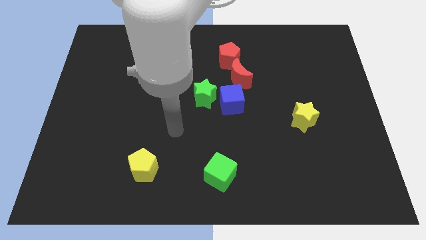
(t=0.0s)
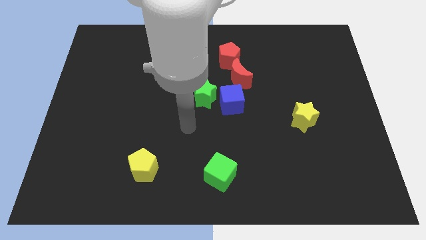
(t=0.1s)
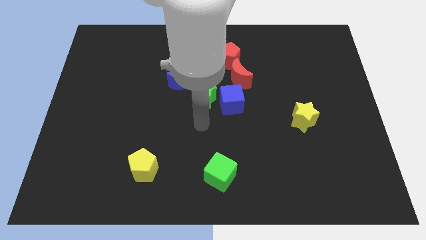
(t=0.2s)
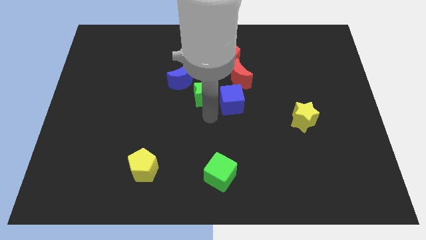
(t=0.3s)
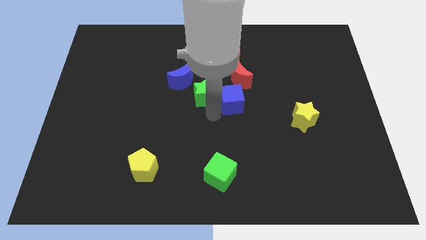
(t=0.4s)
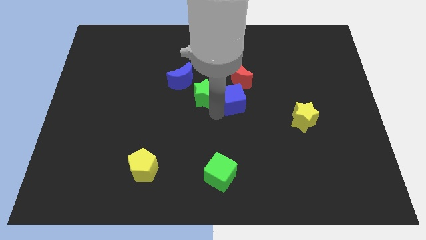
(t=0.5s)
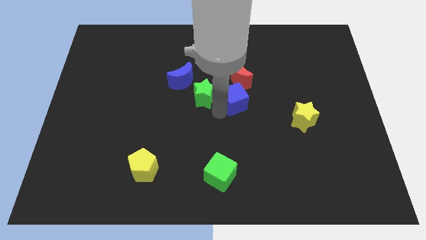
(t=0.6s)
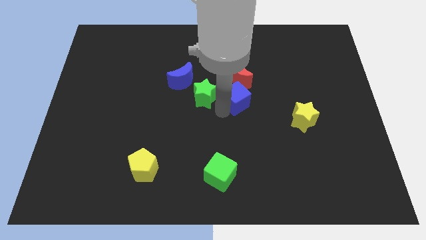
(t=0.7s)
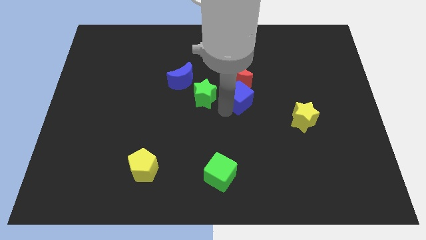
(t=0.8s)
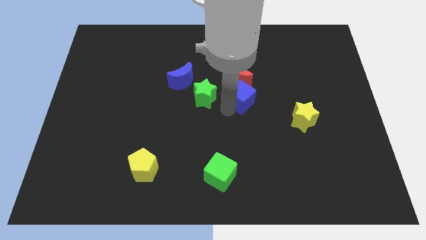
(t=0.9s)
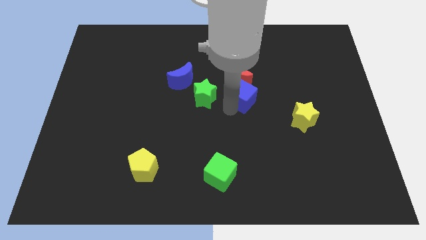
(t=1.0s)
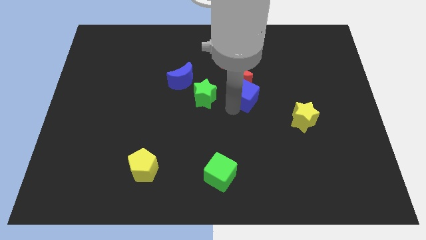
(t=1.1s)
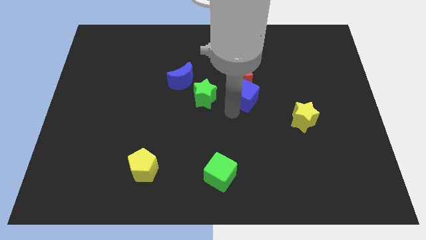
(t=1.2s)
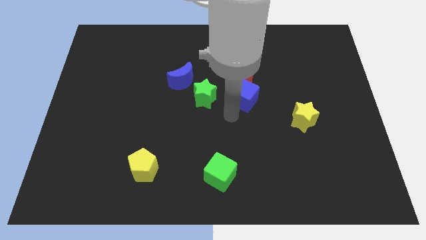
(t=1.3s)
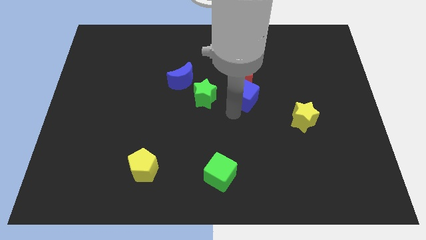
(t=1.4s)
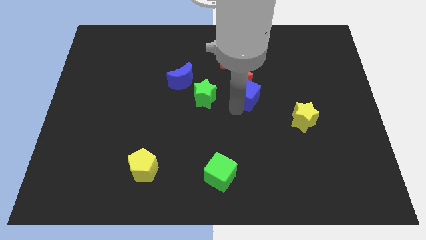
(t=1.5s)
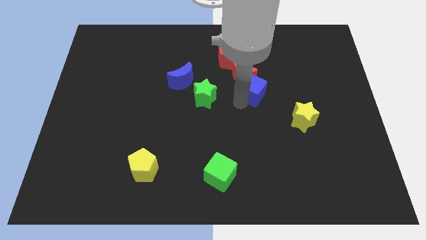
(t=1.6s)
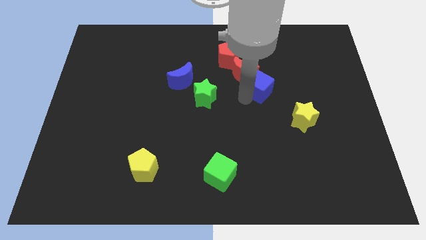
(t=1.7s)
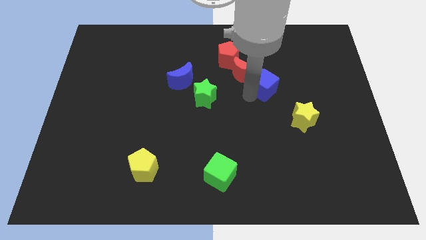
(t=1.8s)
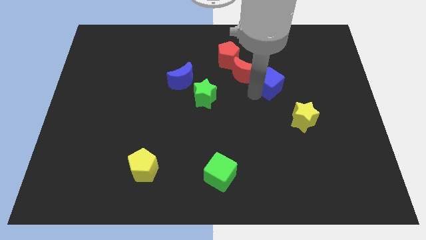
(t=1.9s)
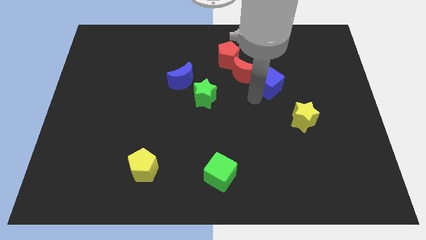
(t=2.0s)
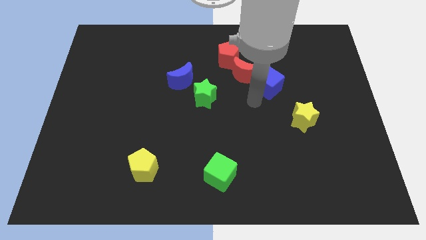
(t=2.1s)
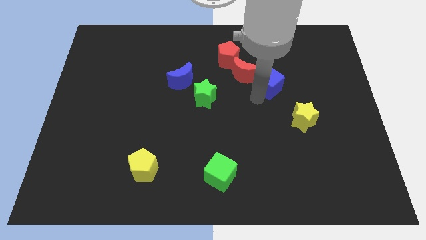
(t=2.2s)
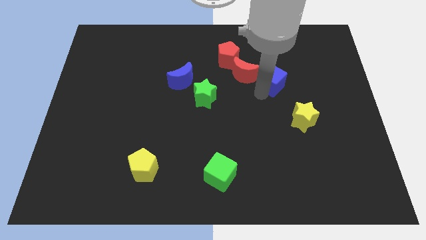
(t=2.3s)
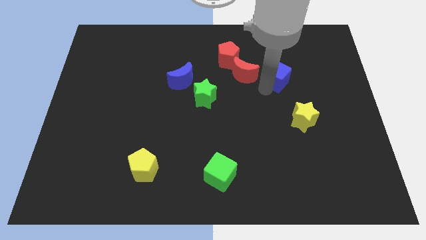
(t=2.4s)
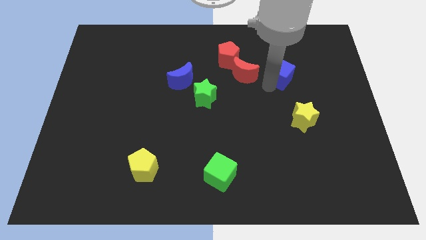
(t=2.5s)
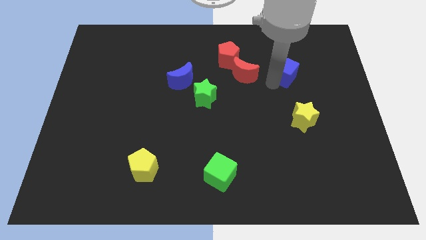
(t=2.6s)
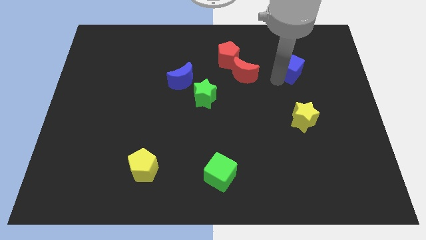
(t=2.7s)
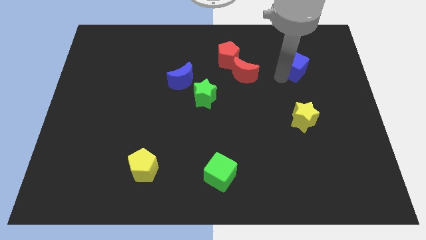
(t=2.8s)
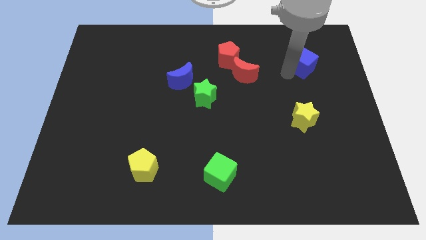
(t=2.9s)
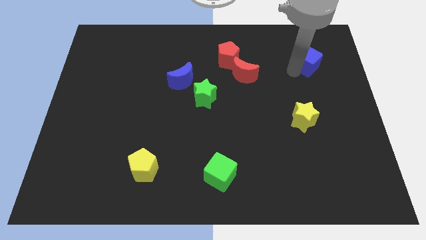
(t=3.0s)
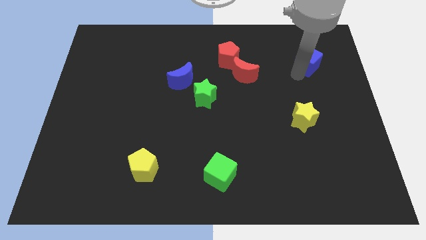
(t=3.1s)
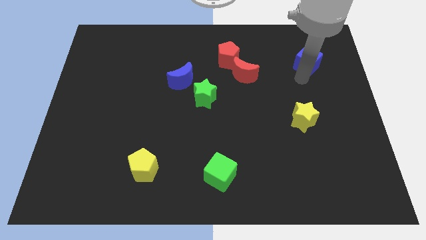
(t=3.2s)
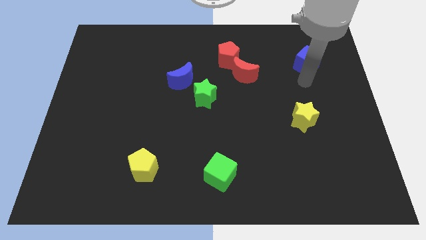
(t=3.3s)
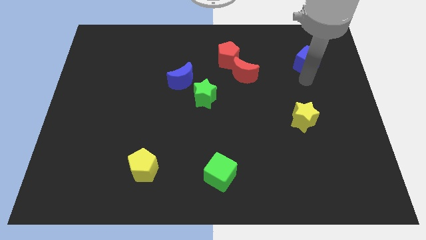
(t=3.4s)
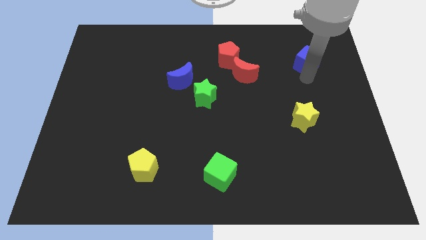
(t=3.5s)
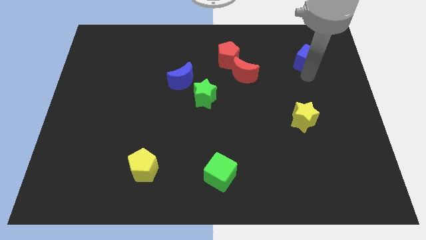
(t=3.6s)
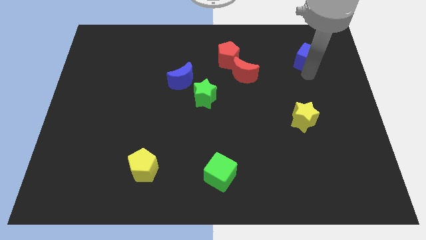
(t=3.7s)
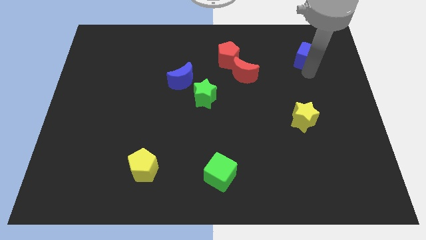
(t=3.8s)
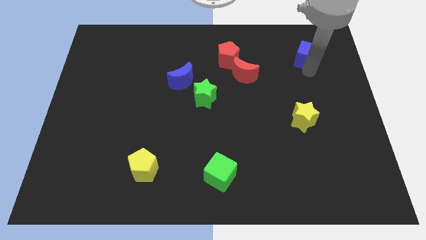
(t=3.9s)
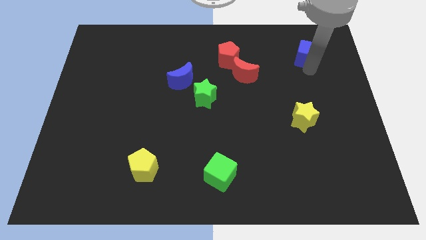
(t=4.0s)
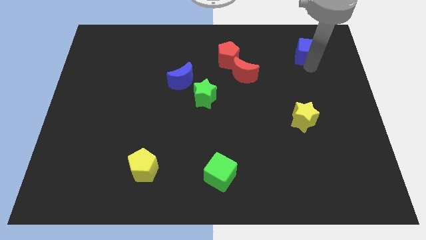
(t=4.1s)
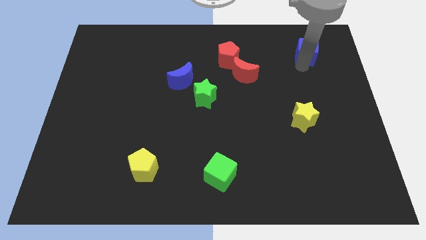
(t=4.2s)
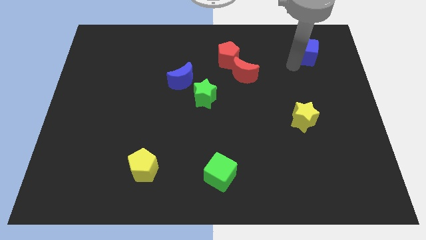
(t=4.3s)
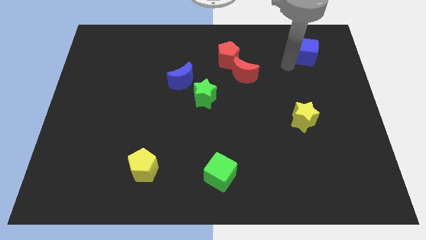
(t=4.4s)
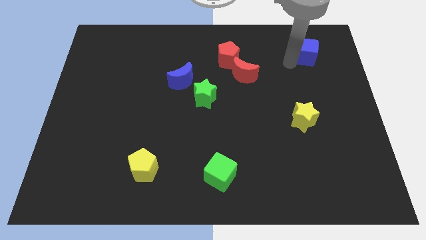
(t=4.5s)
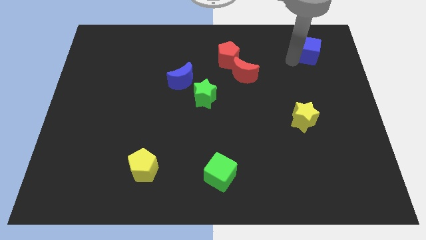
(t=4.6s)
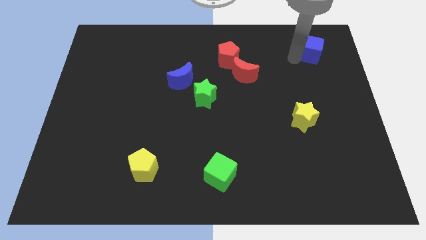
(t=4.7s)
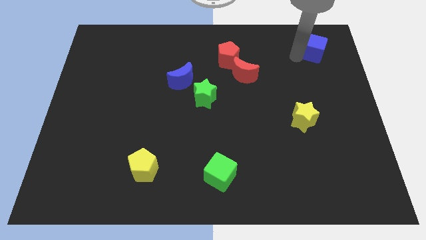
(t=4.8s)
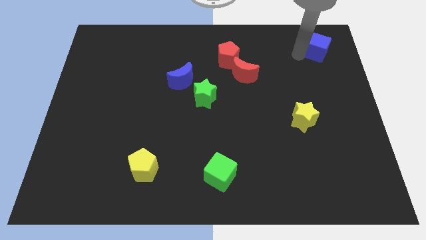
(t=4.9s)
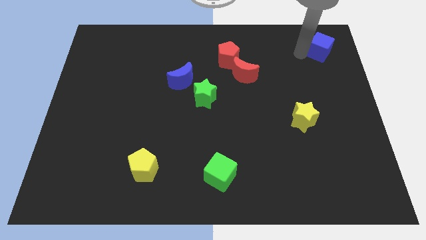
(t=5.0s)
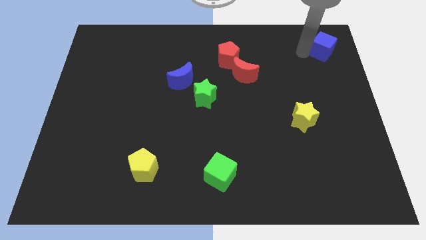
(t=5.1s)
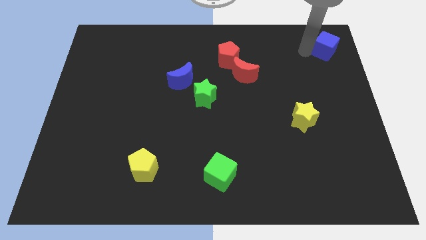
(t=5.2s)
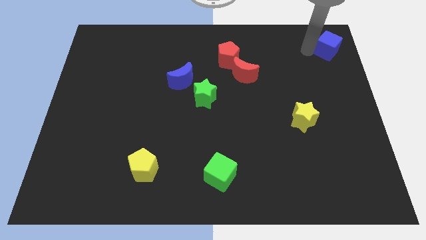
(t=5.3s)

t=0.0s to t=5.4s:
put the blue cube to the top right of the board

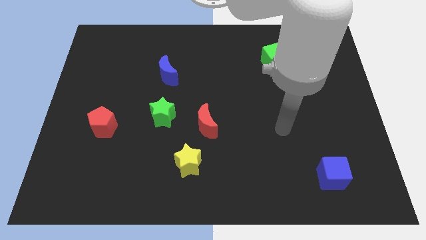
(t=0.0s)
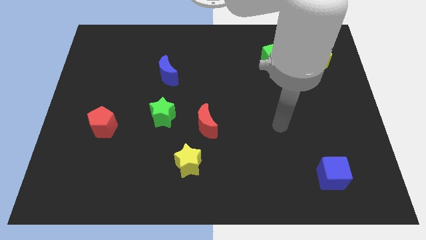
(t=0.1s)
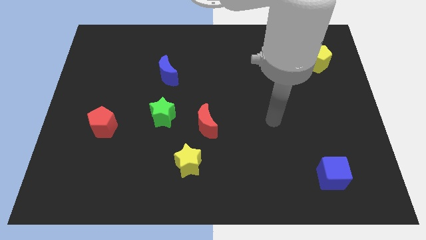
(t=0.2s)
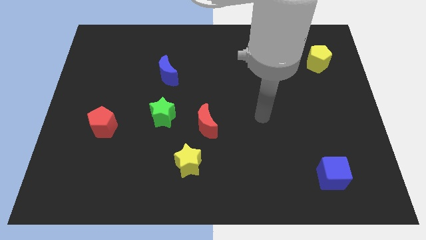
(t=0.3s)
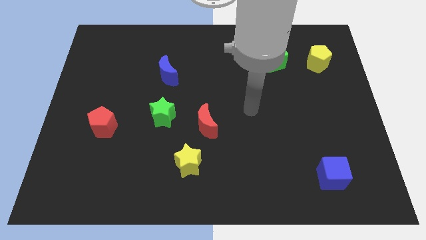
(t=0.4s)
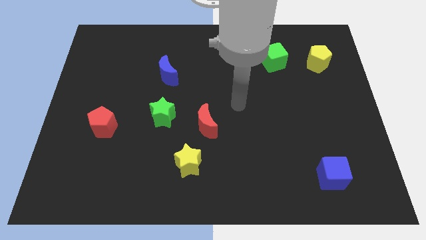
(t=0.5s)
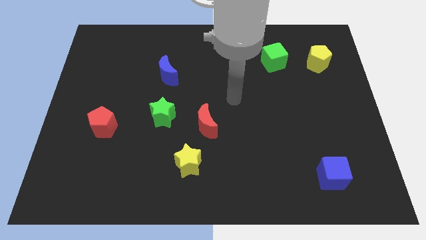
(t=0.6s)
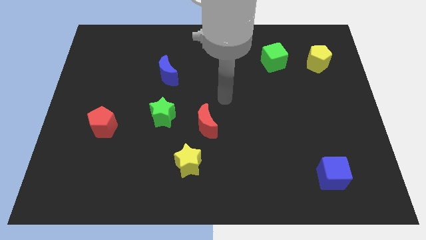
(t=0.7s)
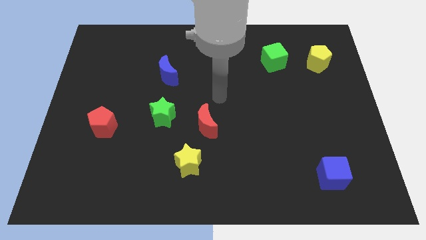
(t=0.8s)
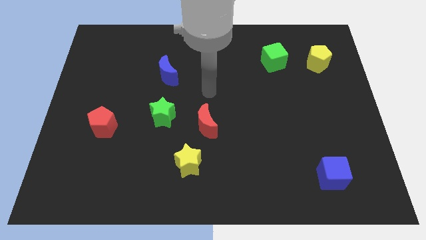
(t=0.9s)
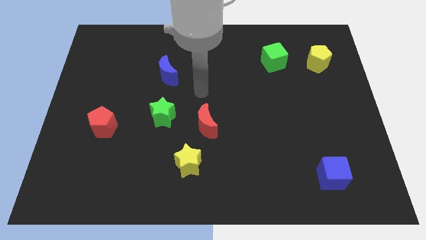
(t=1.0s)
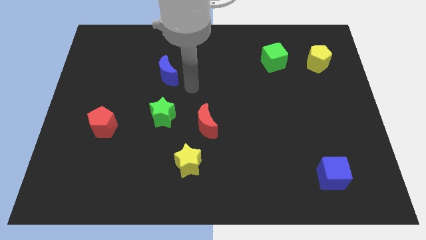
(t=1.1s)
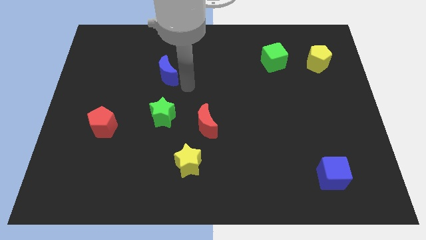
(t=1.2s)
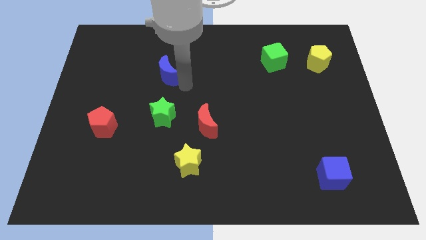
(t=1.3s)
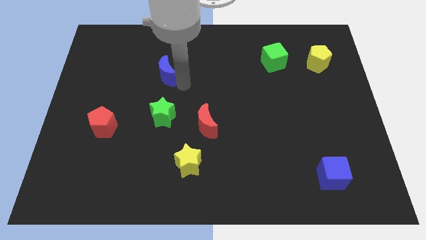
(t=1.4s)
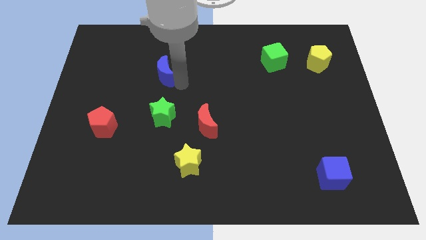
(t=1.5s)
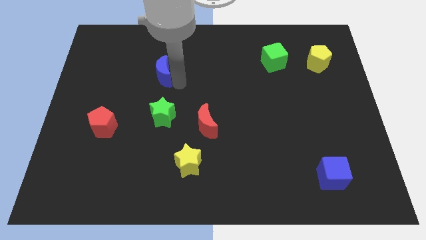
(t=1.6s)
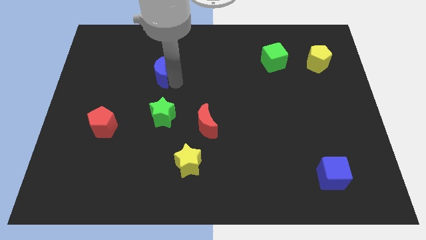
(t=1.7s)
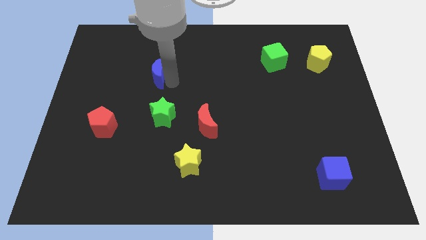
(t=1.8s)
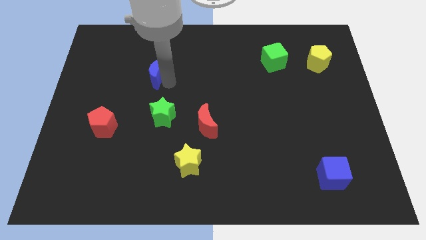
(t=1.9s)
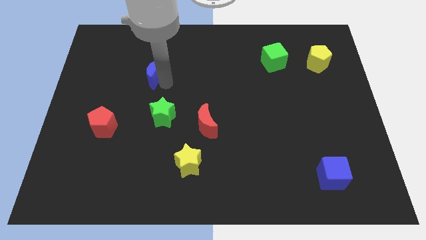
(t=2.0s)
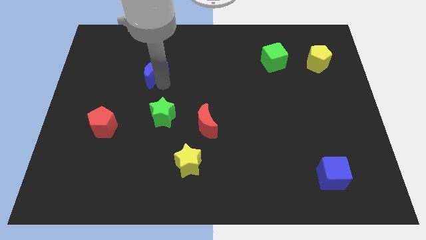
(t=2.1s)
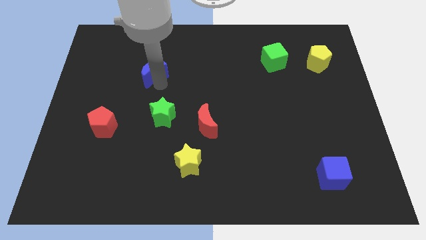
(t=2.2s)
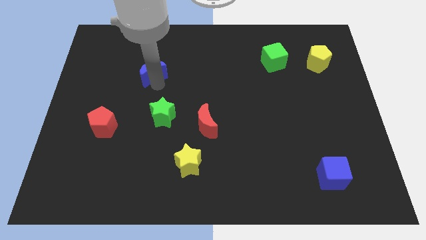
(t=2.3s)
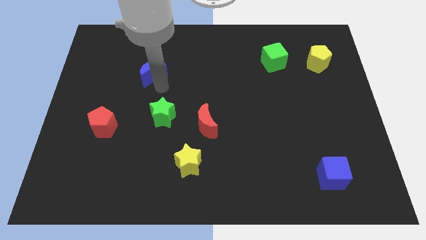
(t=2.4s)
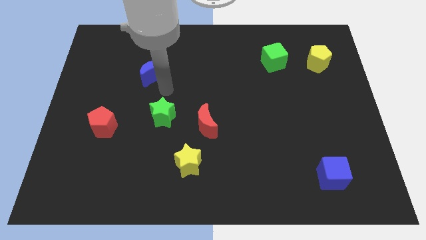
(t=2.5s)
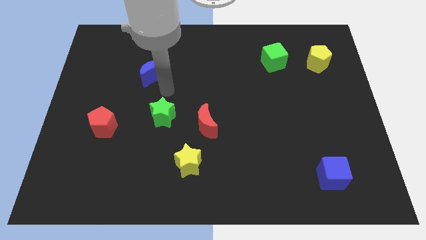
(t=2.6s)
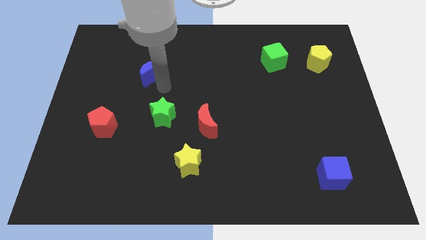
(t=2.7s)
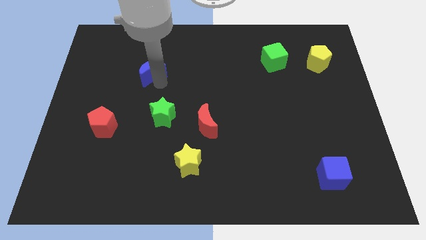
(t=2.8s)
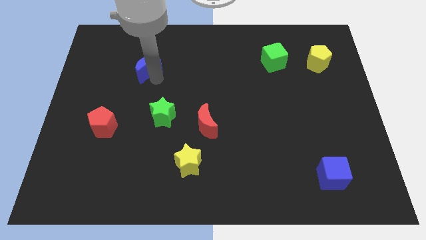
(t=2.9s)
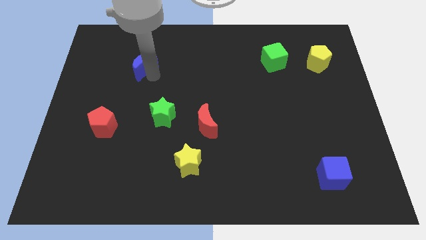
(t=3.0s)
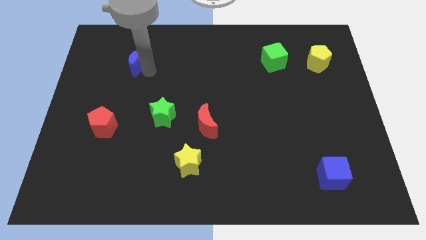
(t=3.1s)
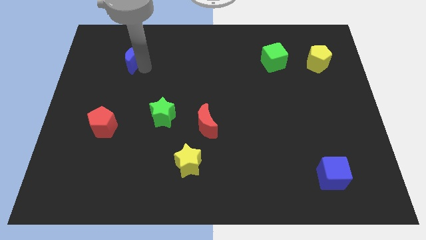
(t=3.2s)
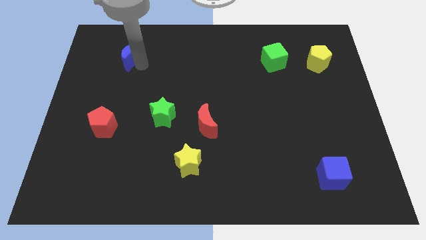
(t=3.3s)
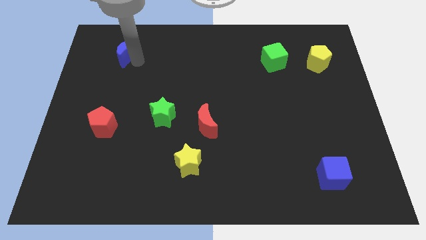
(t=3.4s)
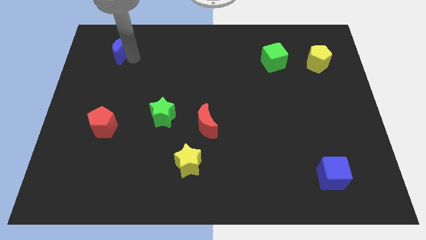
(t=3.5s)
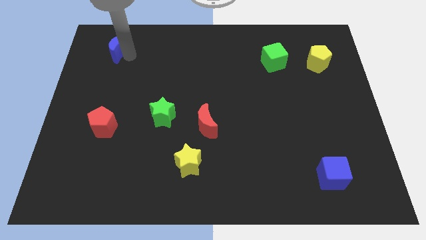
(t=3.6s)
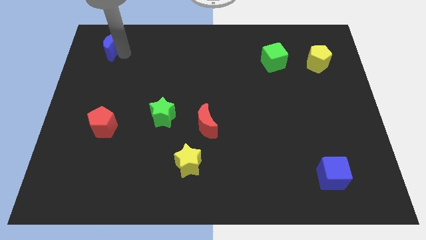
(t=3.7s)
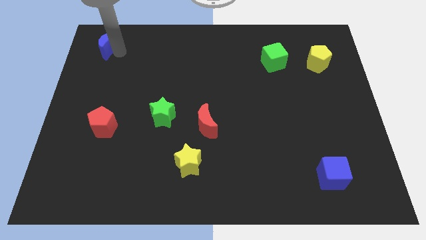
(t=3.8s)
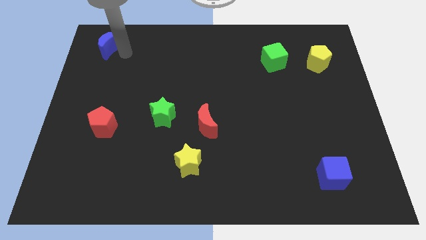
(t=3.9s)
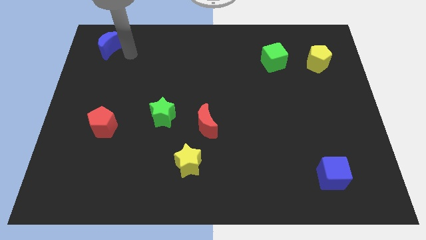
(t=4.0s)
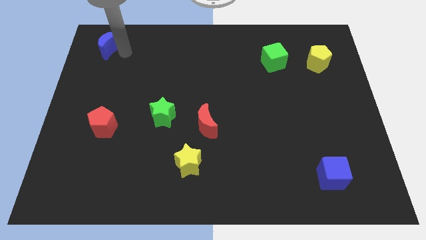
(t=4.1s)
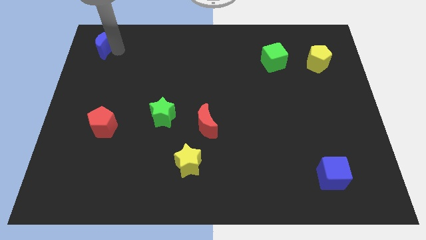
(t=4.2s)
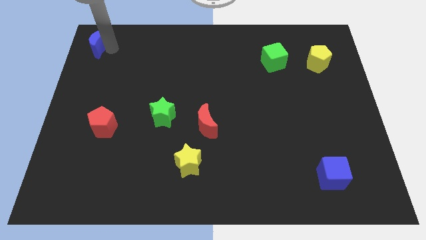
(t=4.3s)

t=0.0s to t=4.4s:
put the blue moon to the upper left corner
